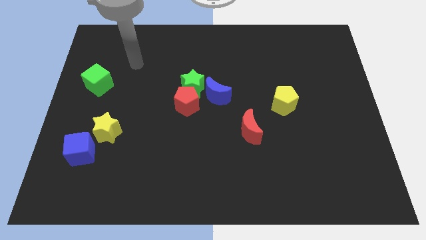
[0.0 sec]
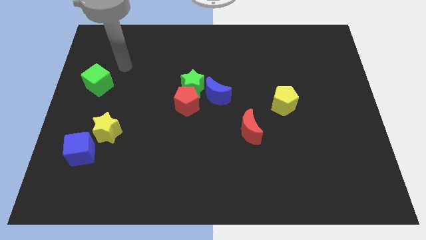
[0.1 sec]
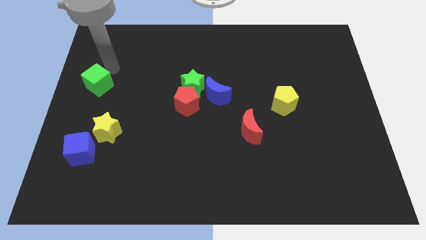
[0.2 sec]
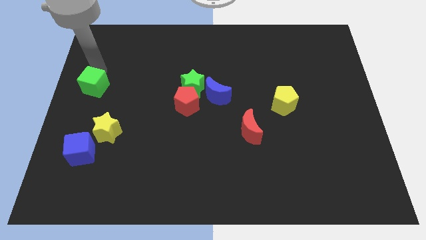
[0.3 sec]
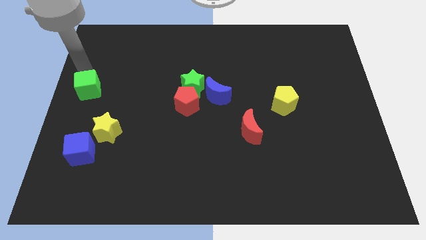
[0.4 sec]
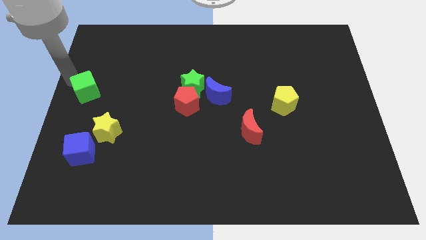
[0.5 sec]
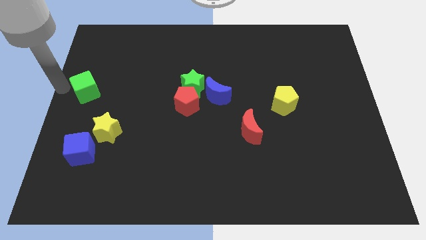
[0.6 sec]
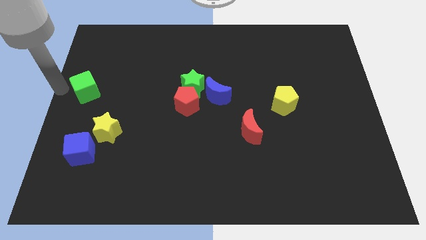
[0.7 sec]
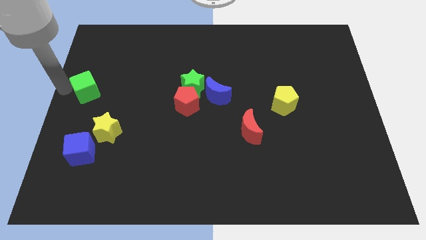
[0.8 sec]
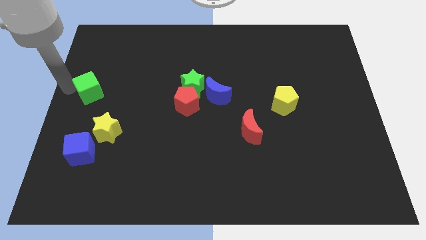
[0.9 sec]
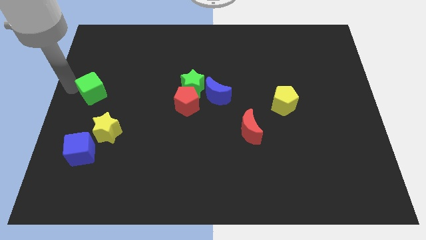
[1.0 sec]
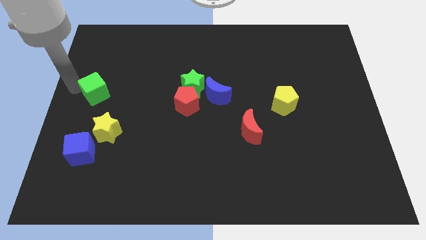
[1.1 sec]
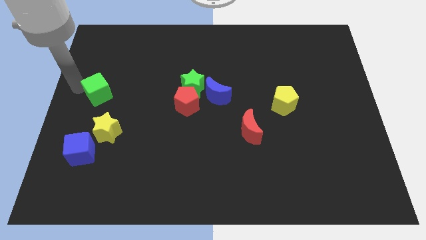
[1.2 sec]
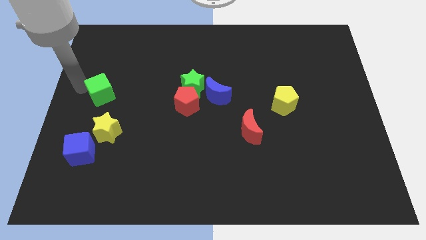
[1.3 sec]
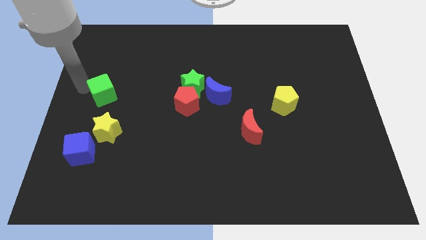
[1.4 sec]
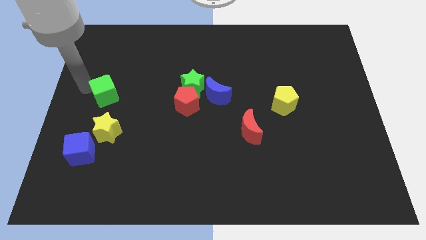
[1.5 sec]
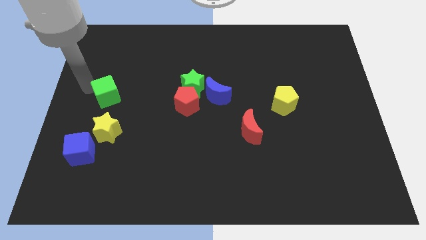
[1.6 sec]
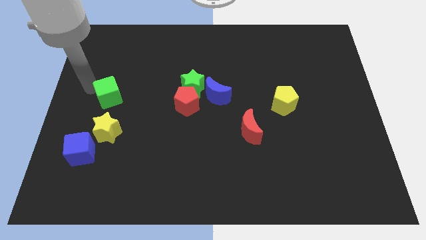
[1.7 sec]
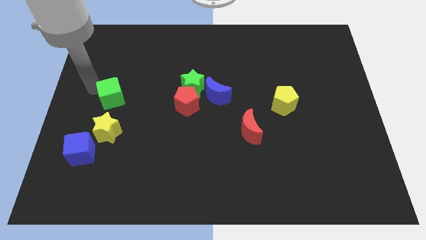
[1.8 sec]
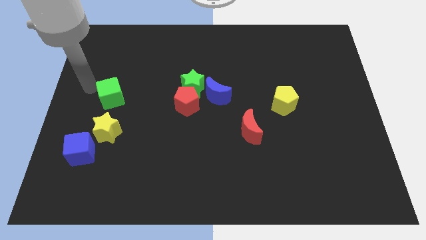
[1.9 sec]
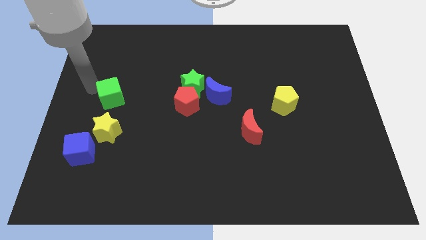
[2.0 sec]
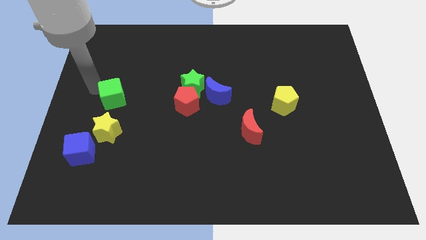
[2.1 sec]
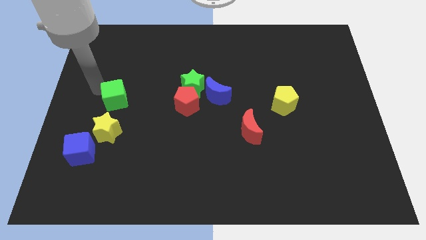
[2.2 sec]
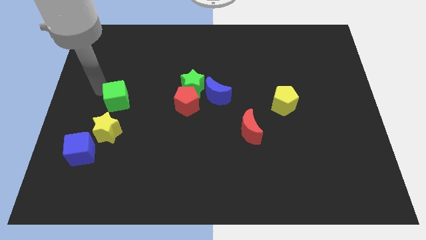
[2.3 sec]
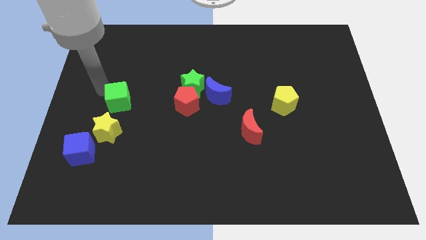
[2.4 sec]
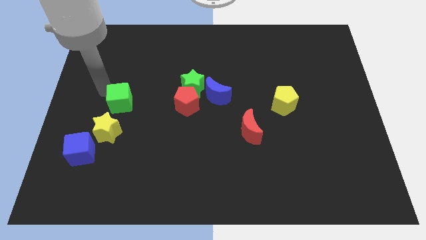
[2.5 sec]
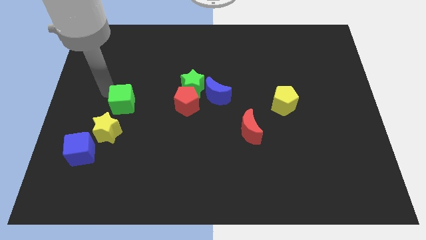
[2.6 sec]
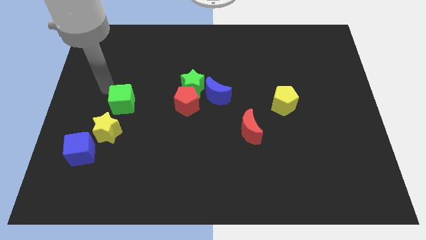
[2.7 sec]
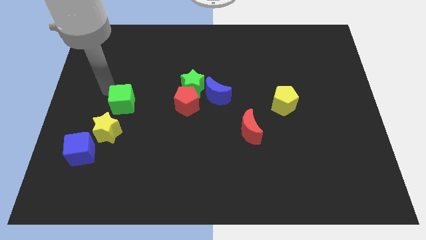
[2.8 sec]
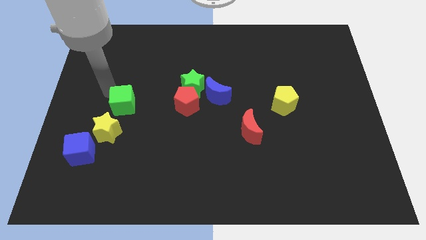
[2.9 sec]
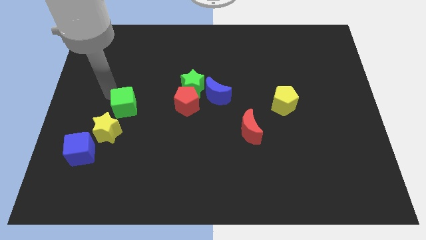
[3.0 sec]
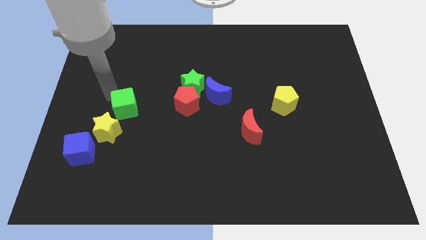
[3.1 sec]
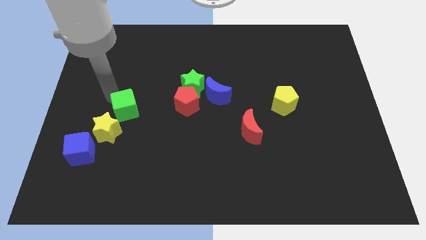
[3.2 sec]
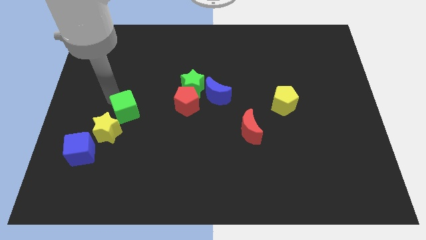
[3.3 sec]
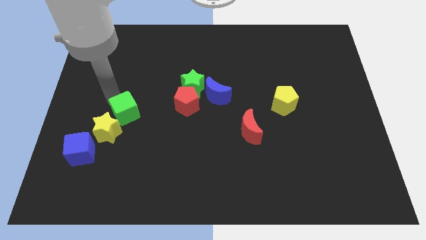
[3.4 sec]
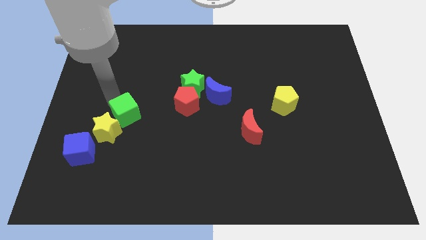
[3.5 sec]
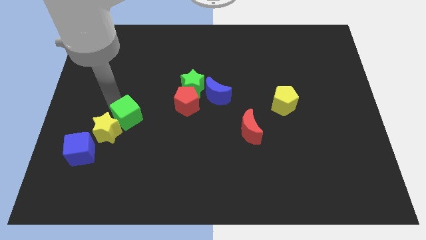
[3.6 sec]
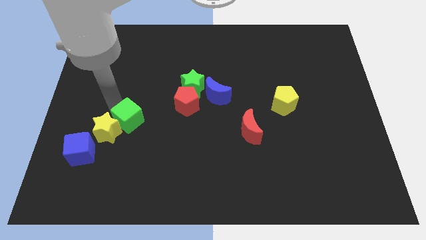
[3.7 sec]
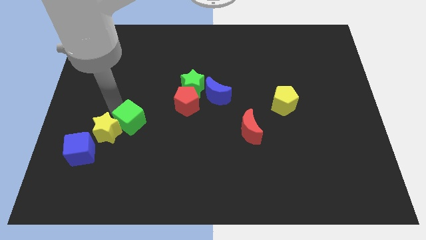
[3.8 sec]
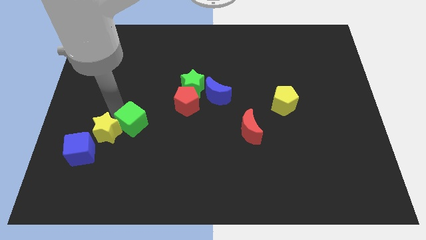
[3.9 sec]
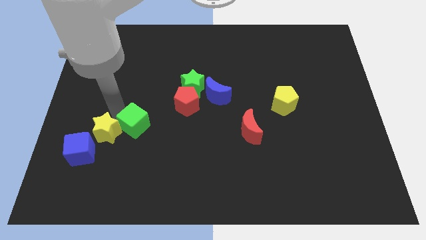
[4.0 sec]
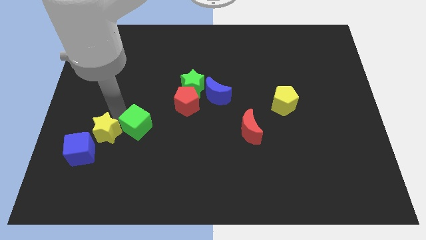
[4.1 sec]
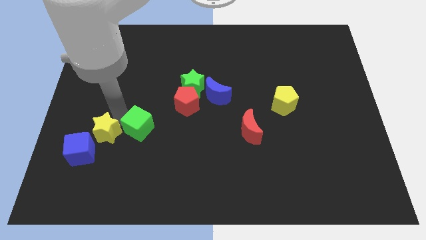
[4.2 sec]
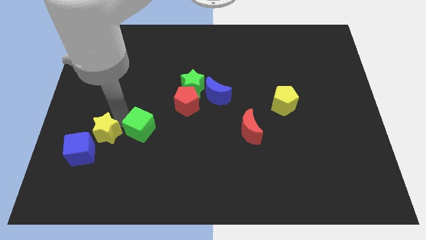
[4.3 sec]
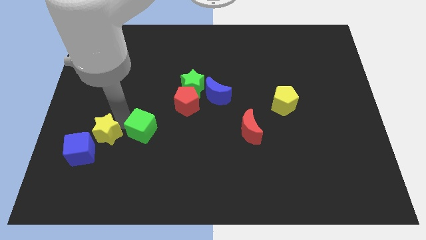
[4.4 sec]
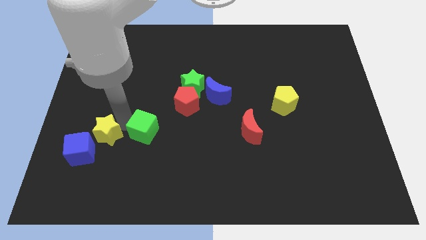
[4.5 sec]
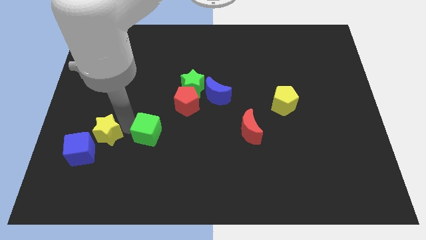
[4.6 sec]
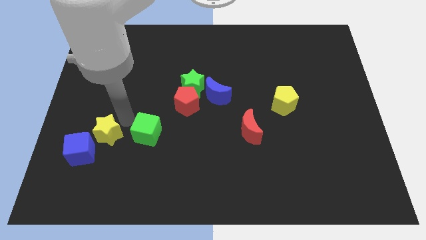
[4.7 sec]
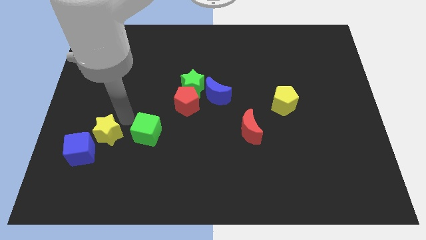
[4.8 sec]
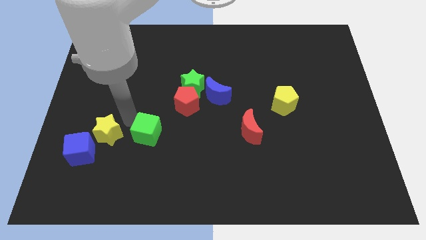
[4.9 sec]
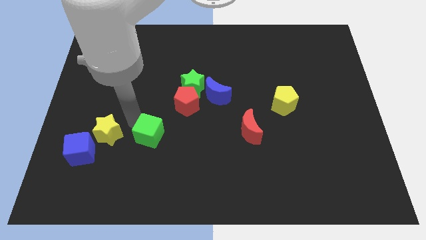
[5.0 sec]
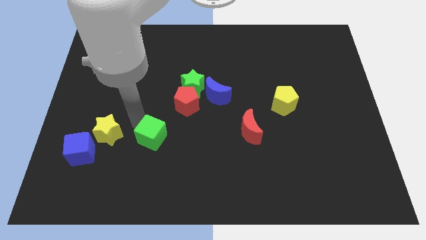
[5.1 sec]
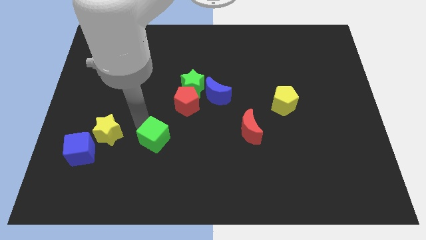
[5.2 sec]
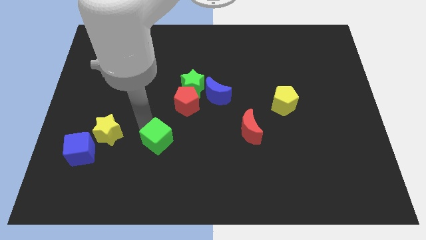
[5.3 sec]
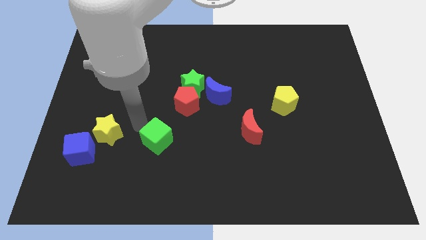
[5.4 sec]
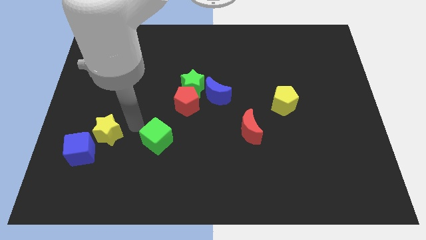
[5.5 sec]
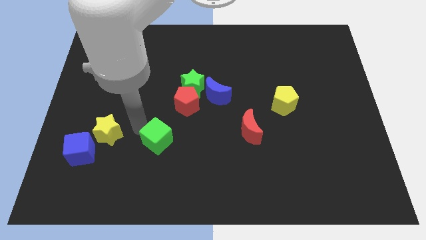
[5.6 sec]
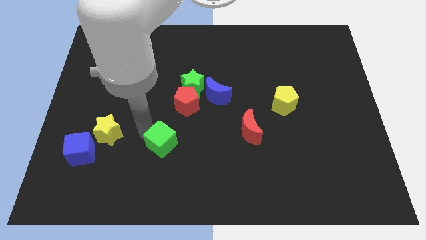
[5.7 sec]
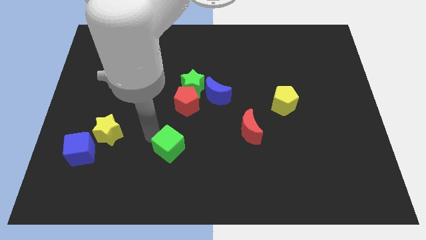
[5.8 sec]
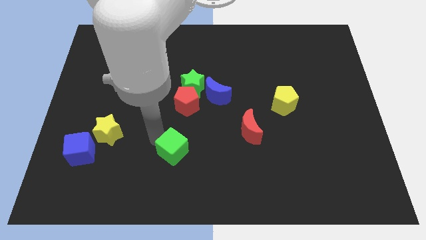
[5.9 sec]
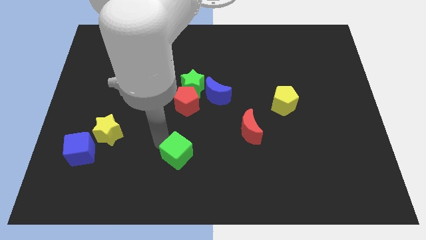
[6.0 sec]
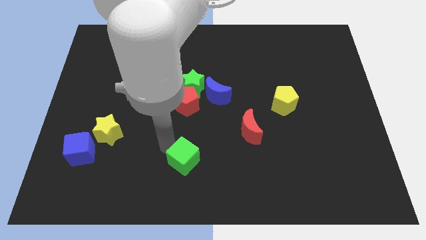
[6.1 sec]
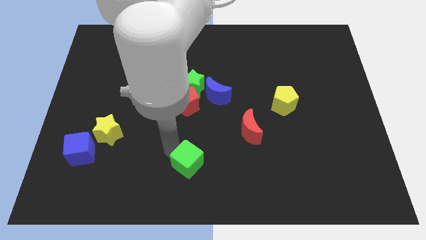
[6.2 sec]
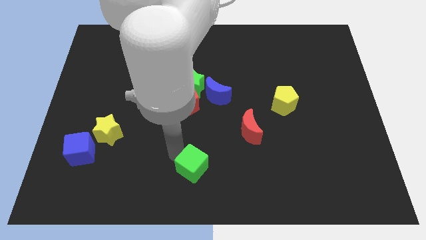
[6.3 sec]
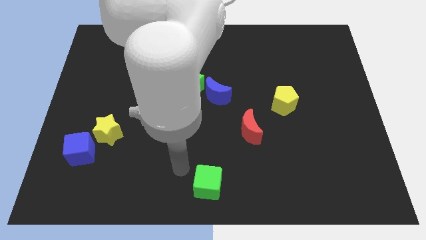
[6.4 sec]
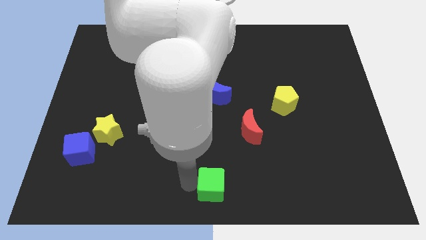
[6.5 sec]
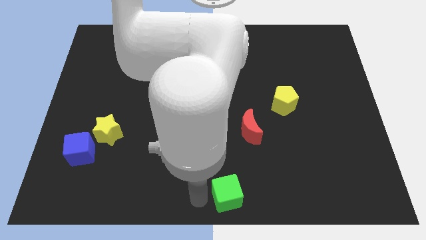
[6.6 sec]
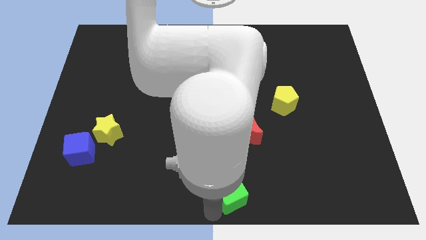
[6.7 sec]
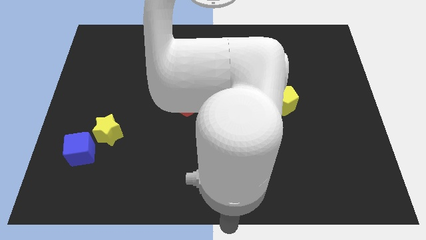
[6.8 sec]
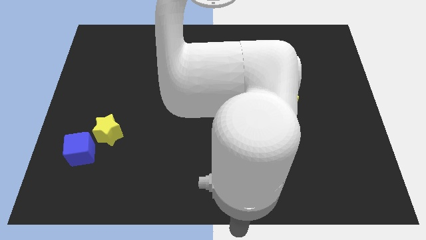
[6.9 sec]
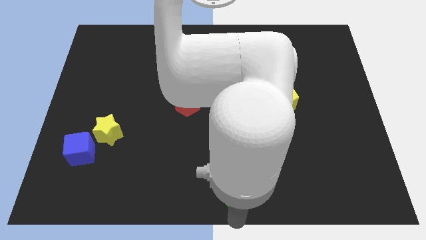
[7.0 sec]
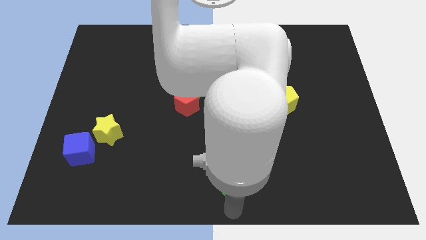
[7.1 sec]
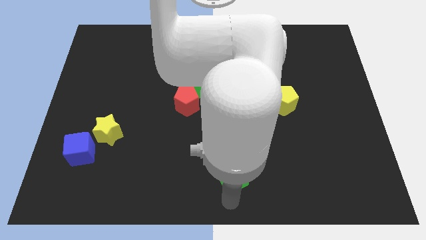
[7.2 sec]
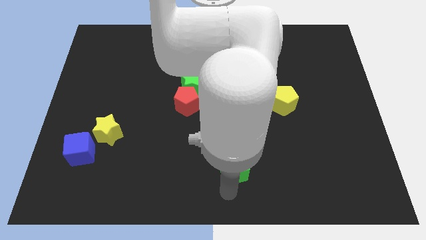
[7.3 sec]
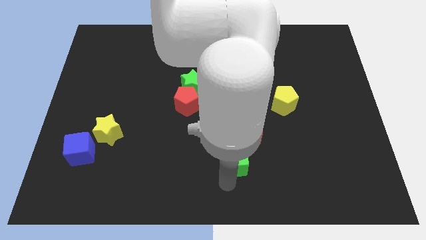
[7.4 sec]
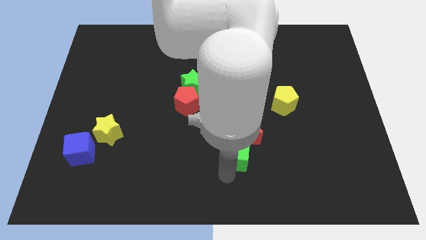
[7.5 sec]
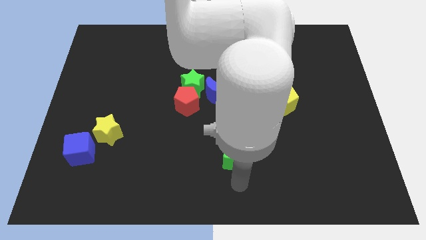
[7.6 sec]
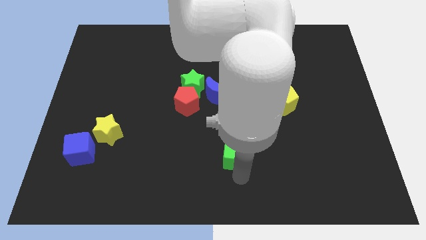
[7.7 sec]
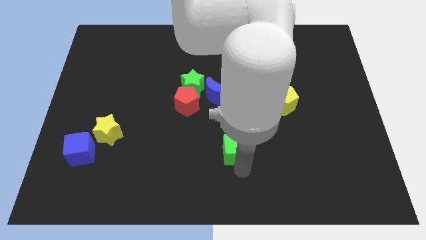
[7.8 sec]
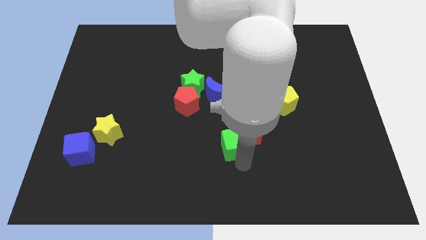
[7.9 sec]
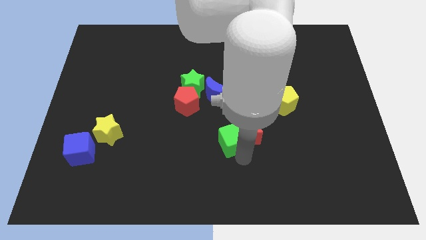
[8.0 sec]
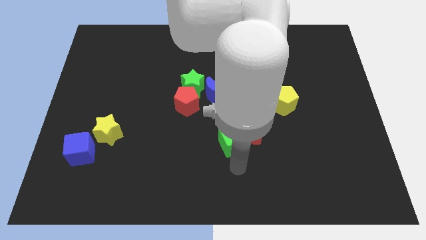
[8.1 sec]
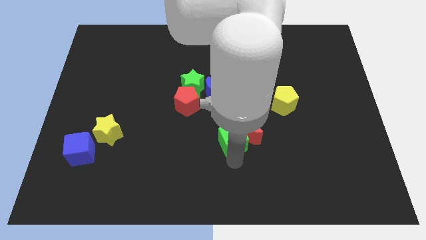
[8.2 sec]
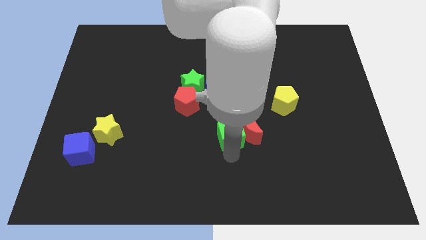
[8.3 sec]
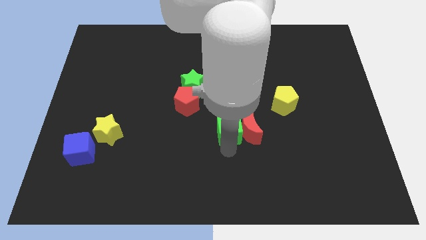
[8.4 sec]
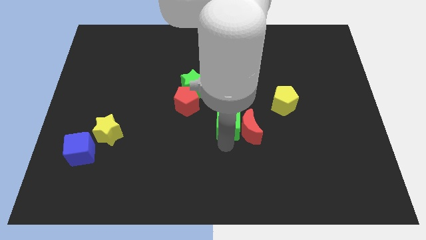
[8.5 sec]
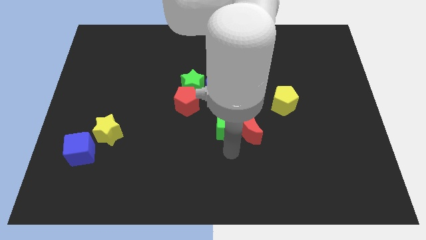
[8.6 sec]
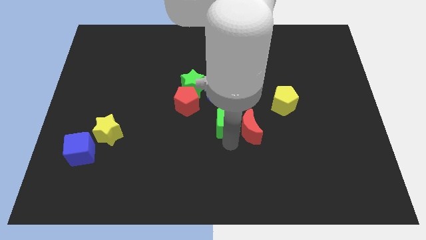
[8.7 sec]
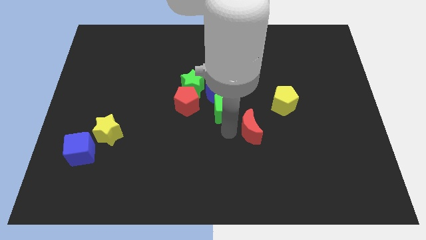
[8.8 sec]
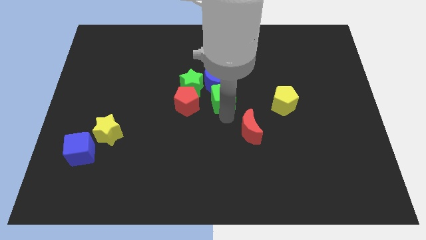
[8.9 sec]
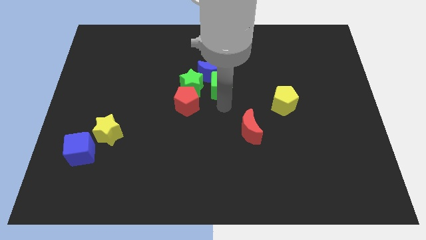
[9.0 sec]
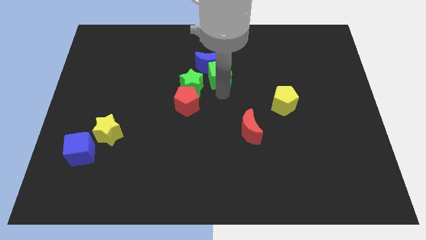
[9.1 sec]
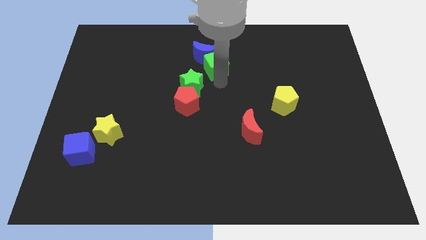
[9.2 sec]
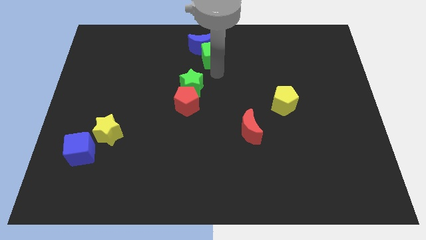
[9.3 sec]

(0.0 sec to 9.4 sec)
put the green cube to the top side
